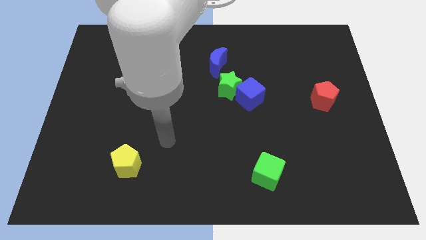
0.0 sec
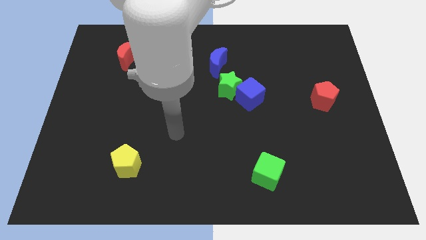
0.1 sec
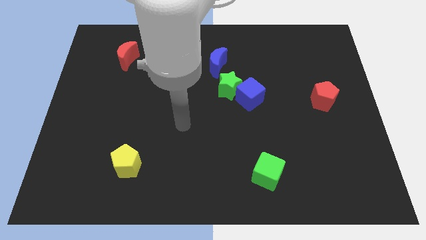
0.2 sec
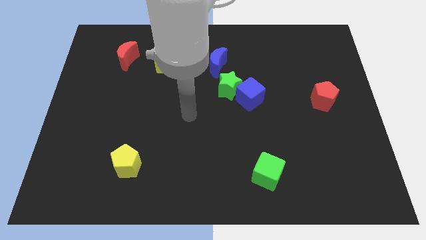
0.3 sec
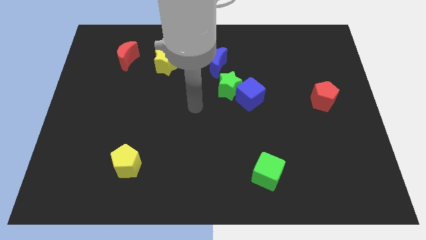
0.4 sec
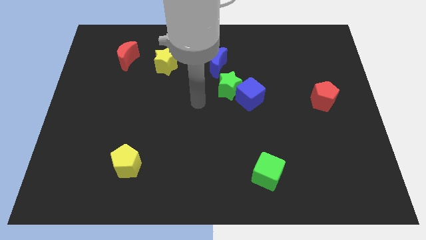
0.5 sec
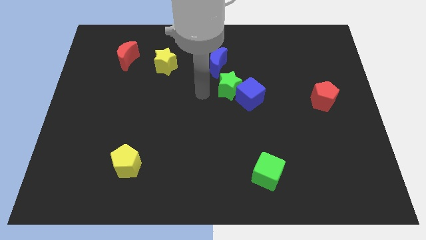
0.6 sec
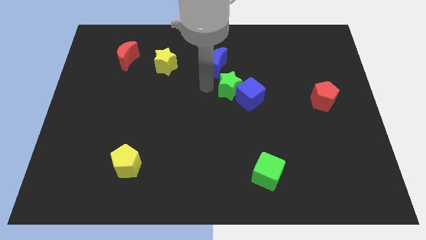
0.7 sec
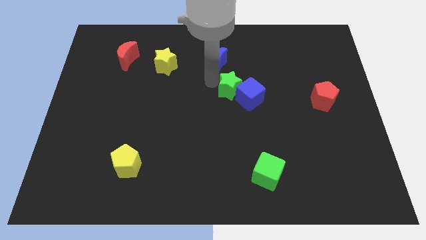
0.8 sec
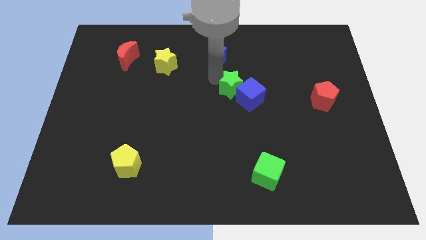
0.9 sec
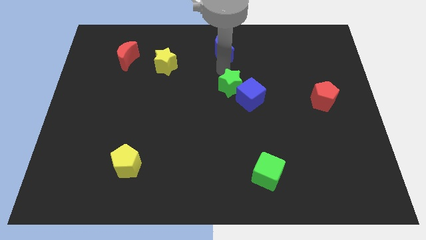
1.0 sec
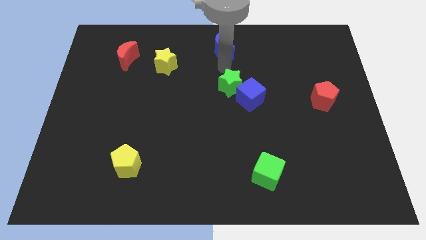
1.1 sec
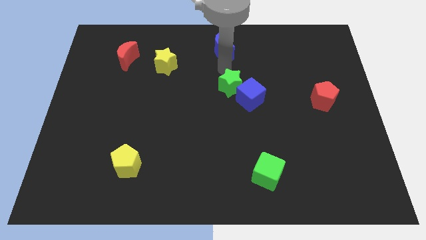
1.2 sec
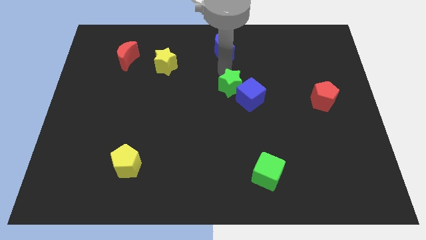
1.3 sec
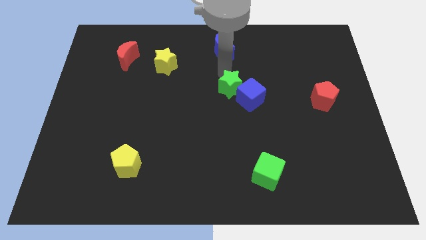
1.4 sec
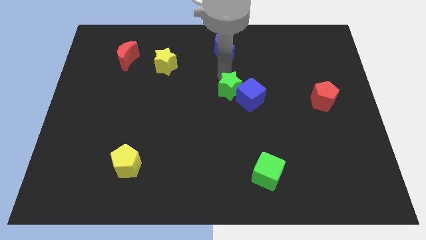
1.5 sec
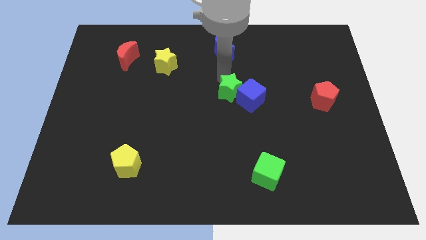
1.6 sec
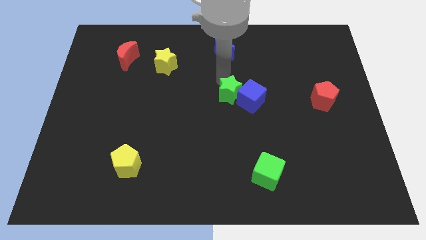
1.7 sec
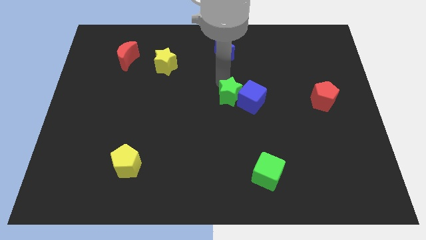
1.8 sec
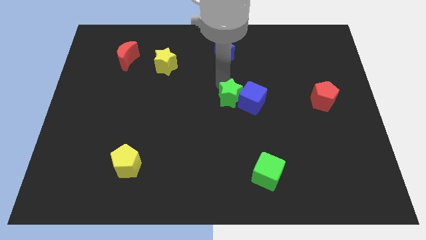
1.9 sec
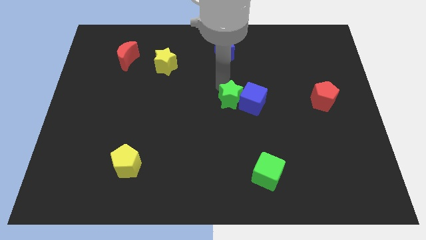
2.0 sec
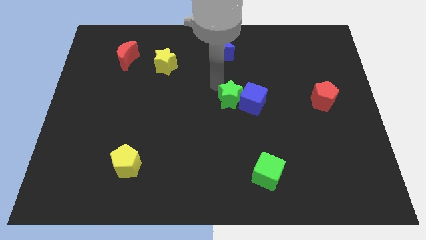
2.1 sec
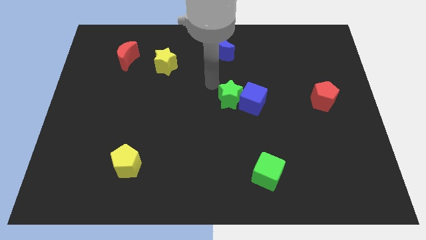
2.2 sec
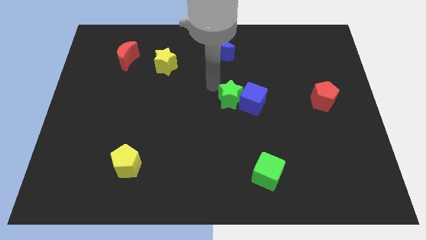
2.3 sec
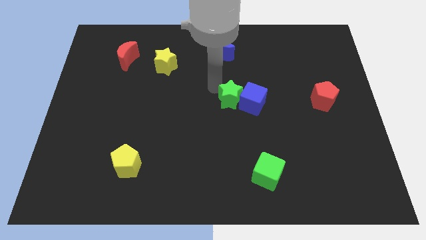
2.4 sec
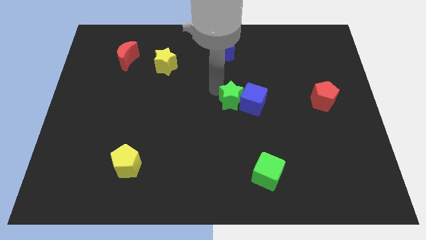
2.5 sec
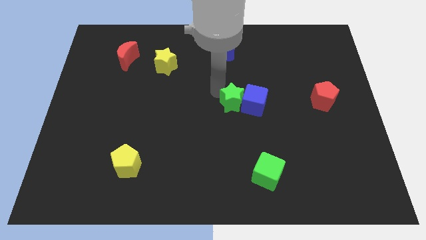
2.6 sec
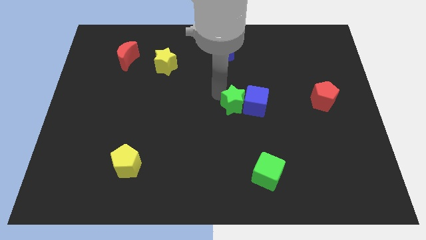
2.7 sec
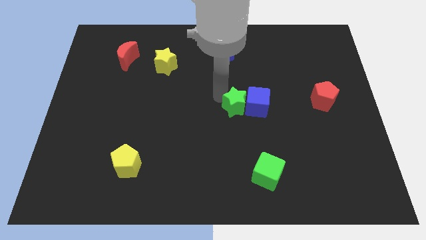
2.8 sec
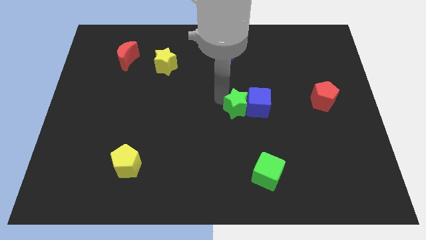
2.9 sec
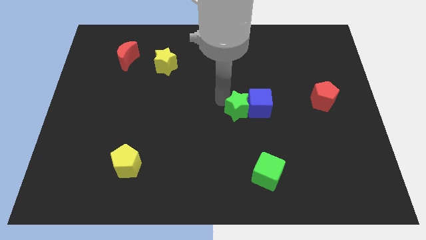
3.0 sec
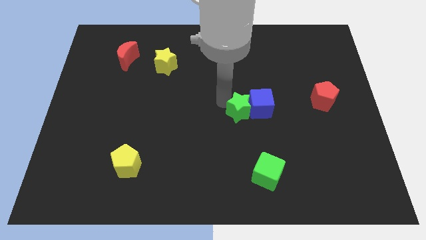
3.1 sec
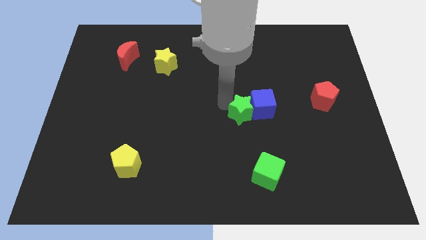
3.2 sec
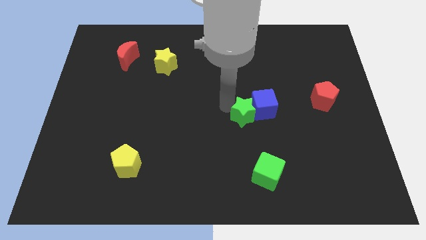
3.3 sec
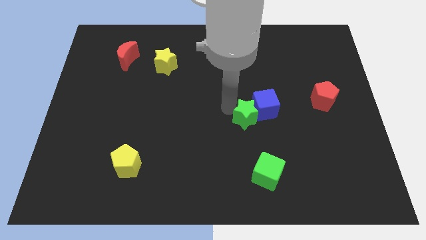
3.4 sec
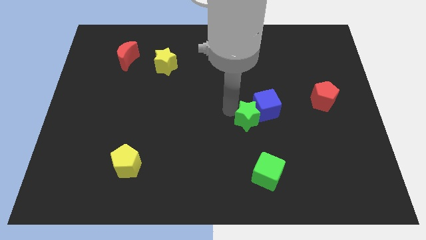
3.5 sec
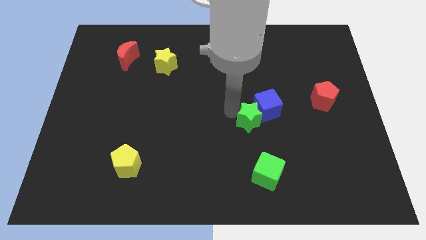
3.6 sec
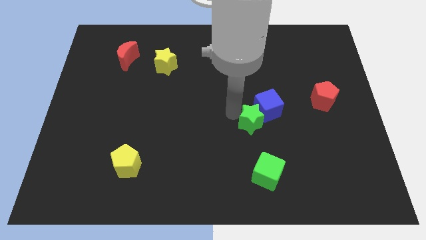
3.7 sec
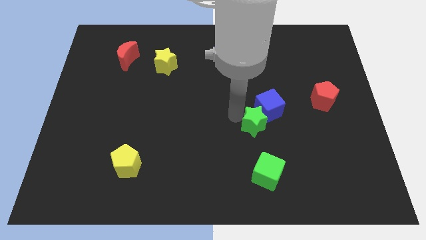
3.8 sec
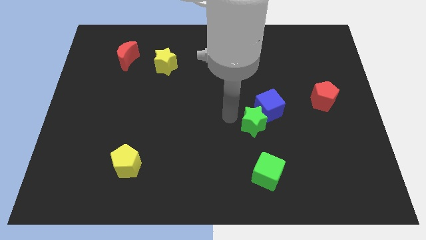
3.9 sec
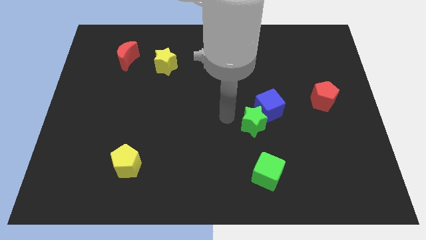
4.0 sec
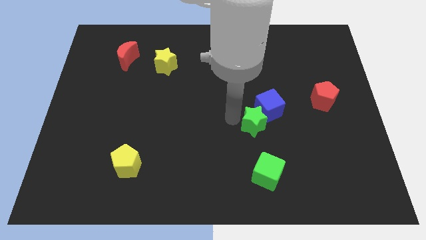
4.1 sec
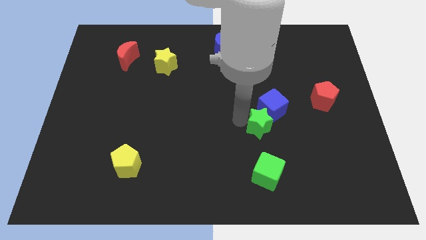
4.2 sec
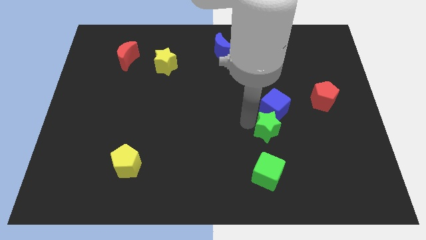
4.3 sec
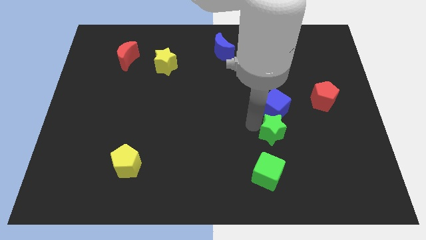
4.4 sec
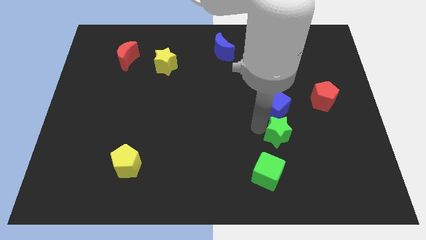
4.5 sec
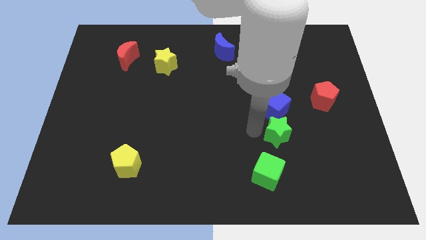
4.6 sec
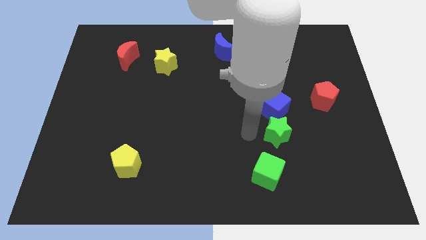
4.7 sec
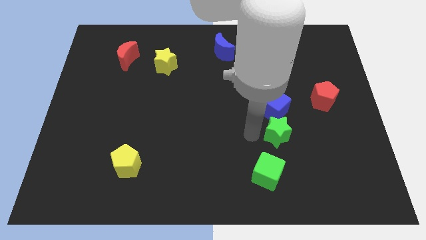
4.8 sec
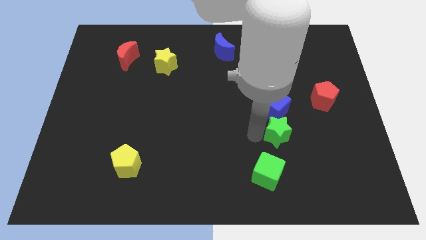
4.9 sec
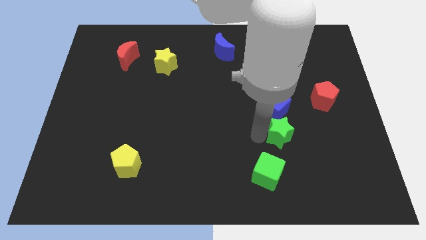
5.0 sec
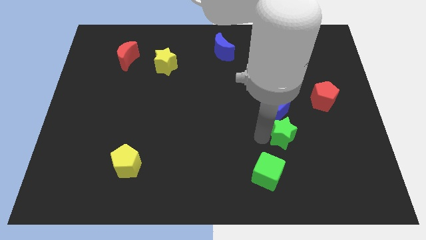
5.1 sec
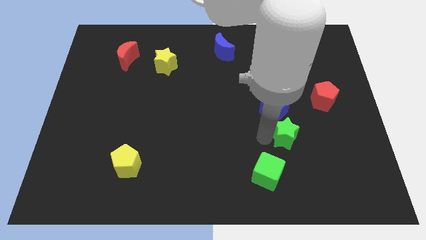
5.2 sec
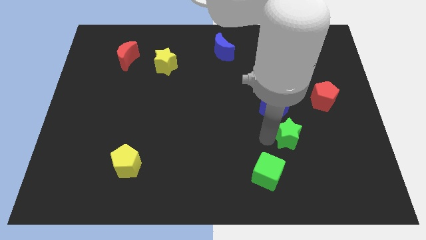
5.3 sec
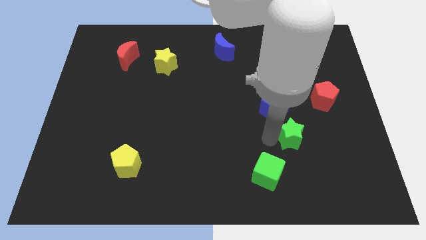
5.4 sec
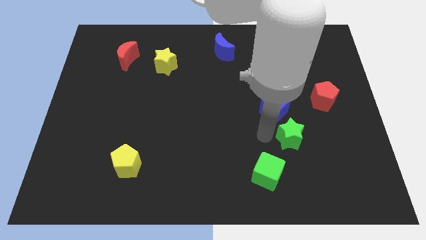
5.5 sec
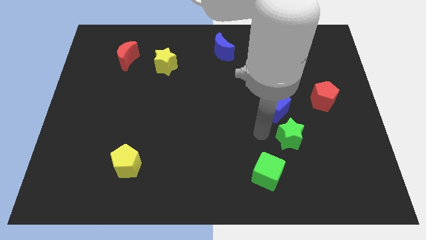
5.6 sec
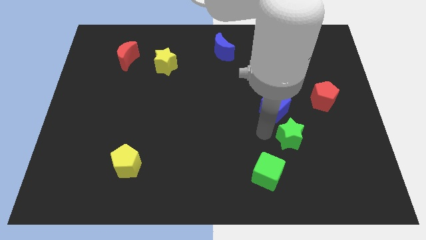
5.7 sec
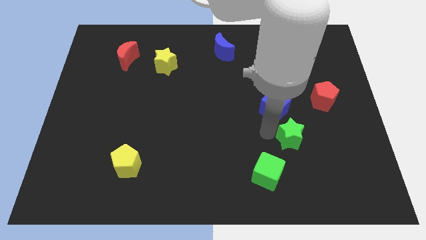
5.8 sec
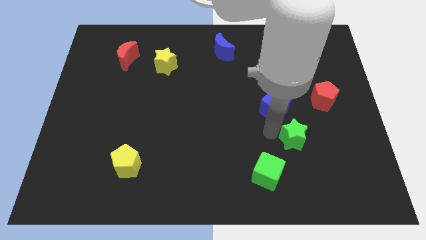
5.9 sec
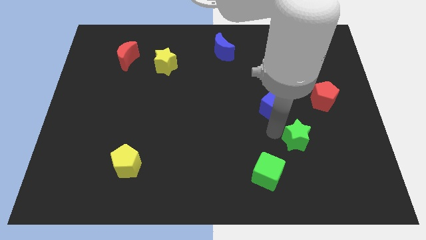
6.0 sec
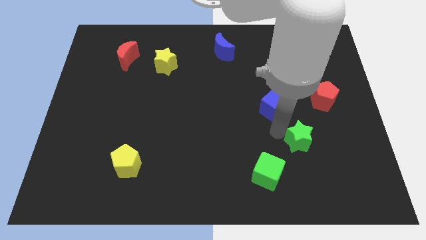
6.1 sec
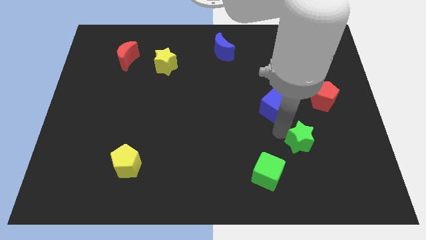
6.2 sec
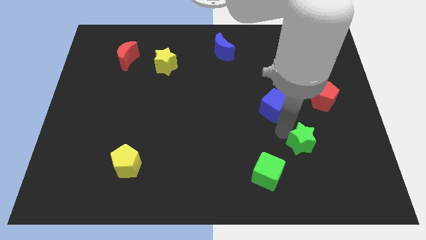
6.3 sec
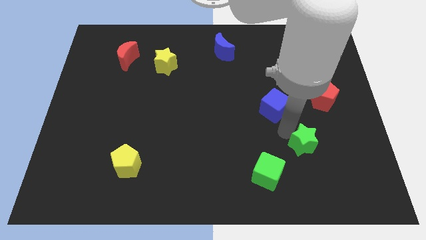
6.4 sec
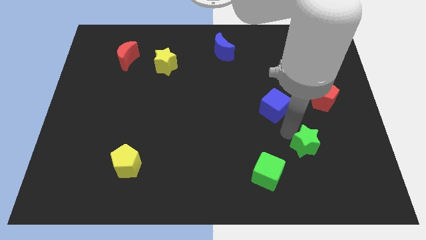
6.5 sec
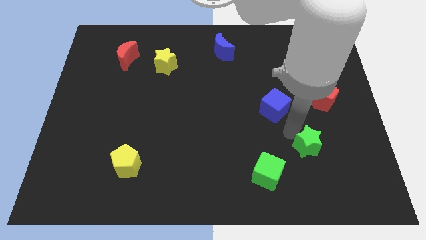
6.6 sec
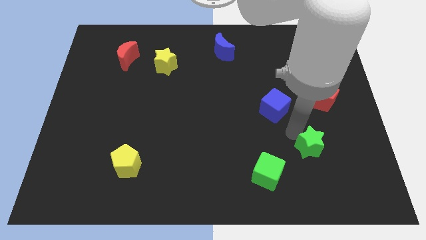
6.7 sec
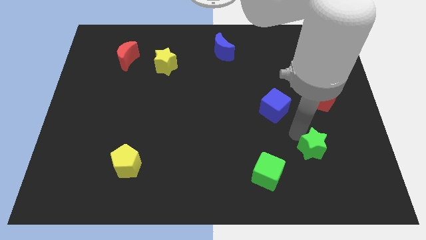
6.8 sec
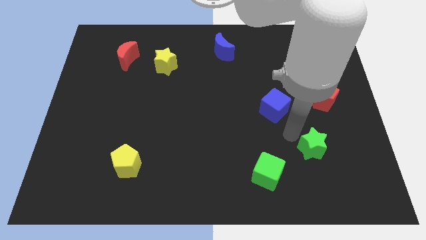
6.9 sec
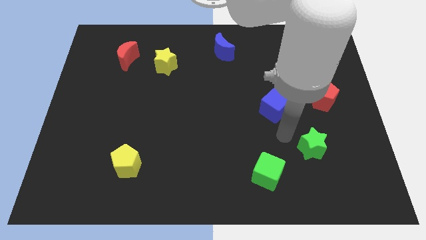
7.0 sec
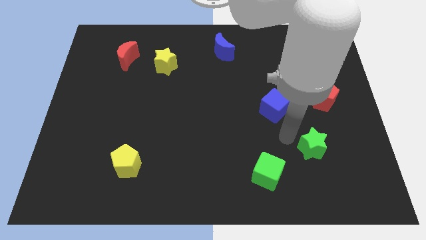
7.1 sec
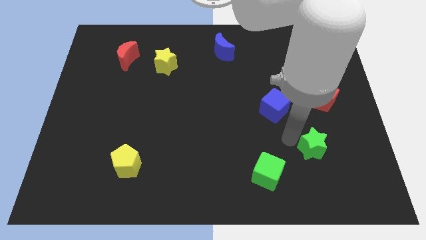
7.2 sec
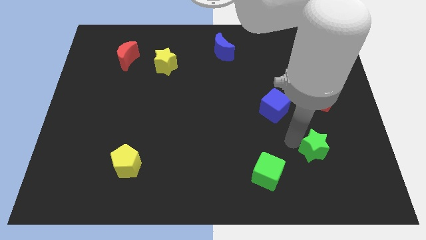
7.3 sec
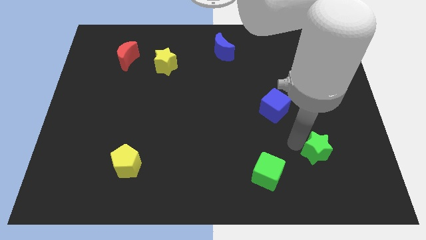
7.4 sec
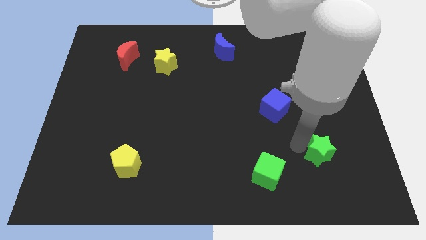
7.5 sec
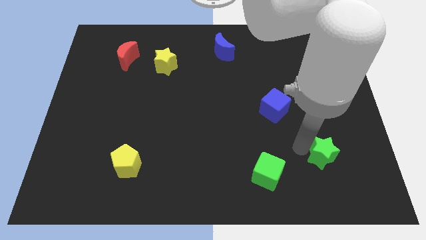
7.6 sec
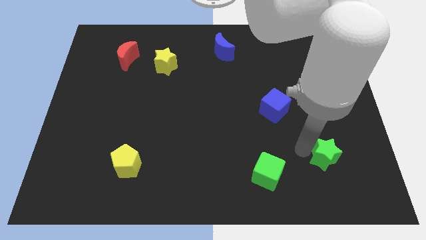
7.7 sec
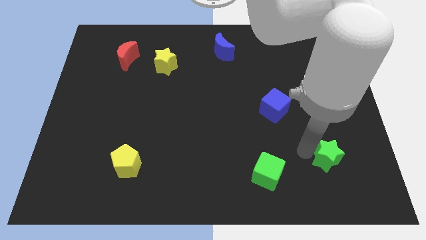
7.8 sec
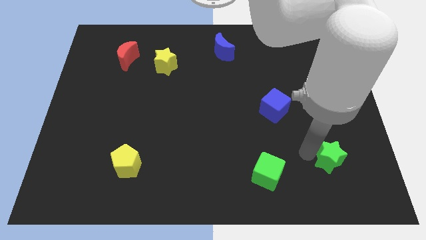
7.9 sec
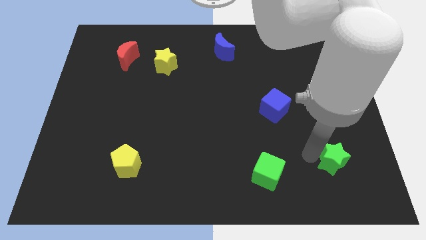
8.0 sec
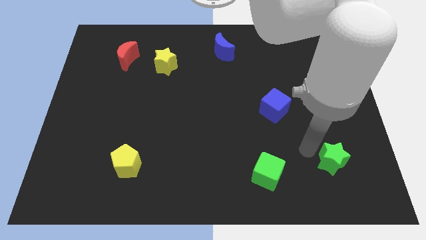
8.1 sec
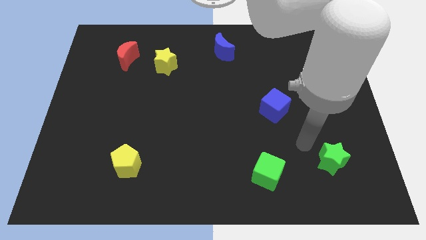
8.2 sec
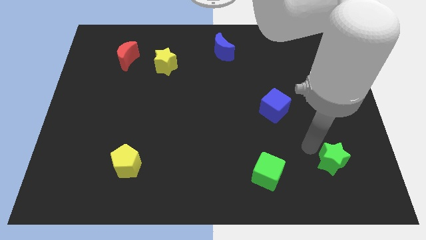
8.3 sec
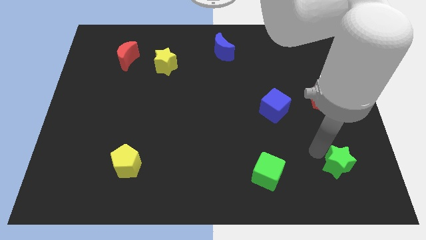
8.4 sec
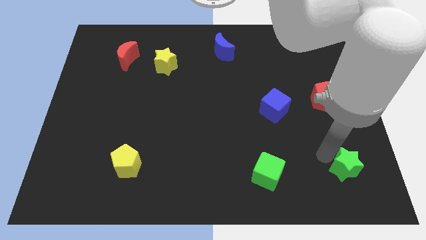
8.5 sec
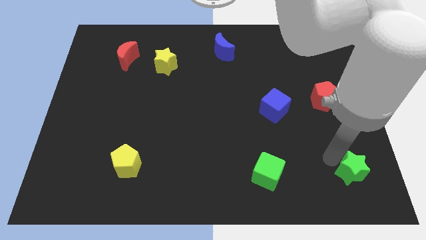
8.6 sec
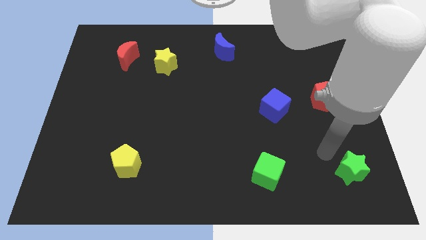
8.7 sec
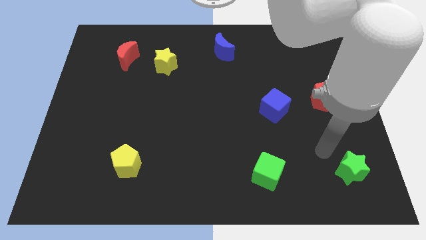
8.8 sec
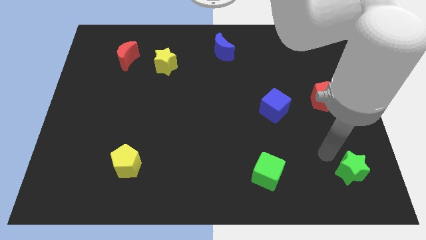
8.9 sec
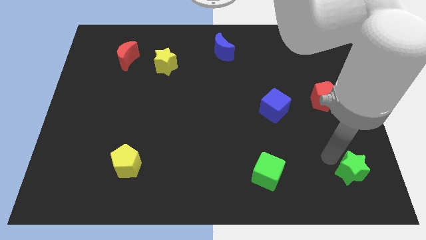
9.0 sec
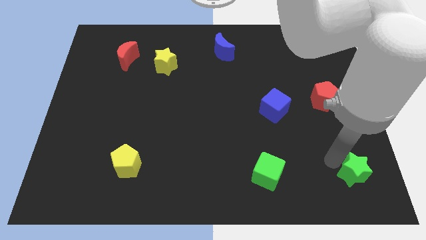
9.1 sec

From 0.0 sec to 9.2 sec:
push the green star to the lower right corner
